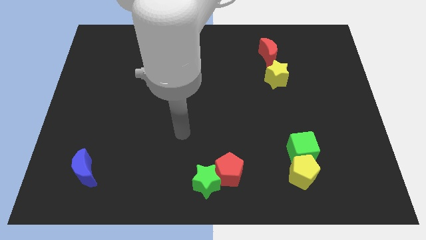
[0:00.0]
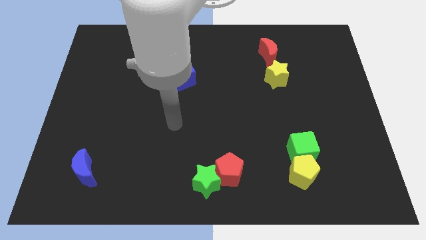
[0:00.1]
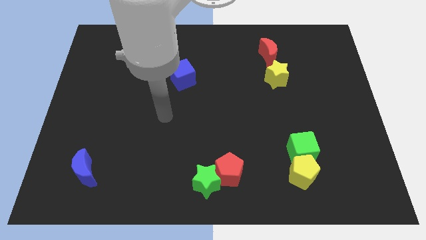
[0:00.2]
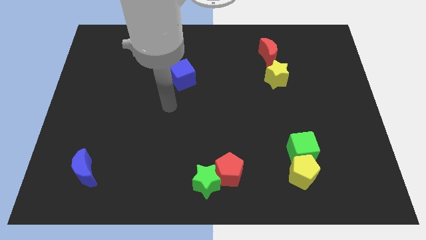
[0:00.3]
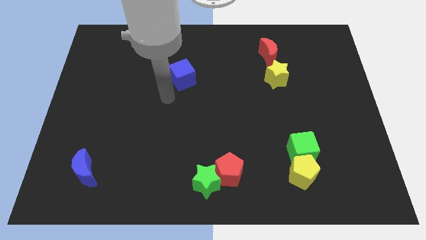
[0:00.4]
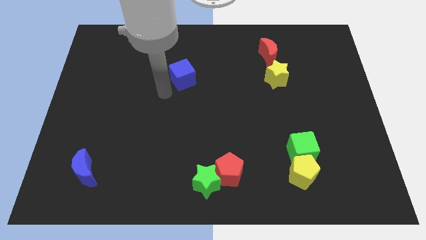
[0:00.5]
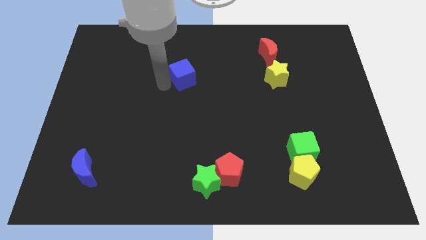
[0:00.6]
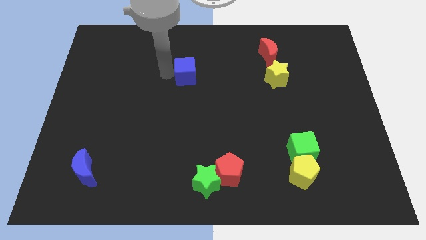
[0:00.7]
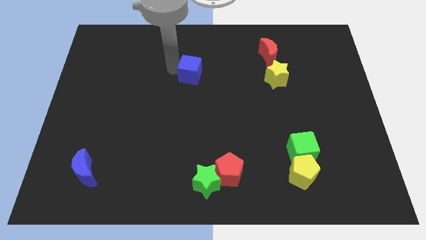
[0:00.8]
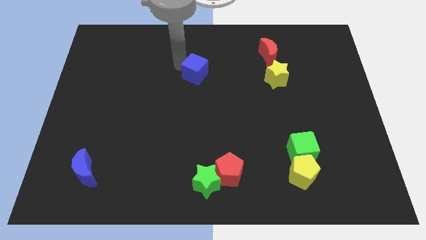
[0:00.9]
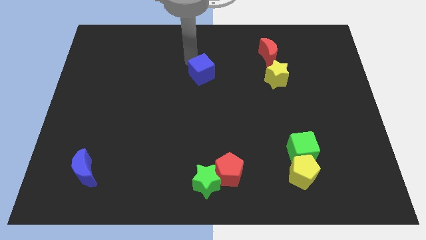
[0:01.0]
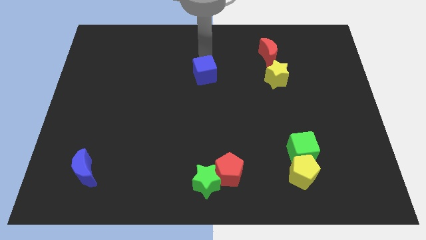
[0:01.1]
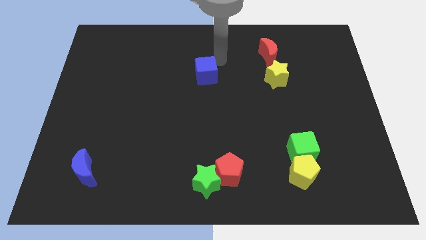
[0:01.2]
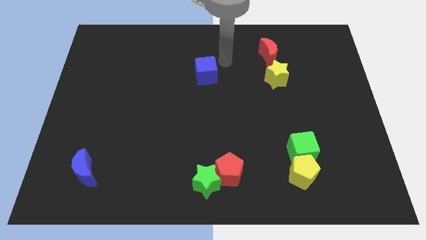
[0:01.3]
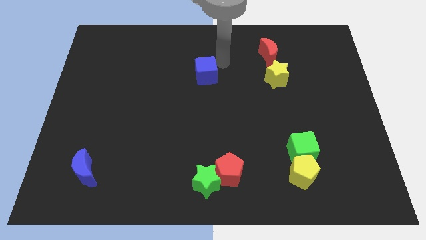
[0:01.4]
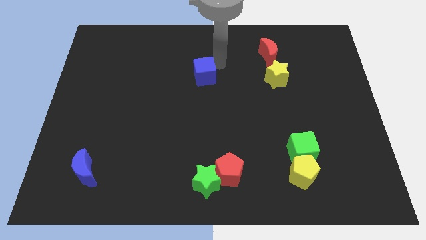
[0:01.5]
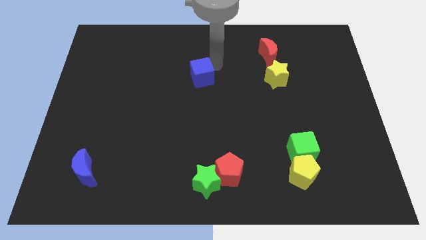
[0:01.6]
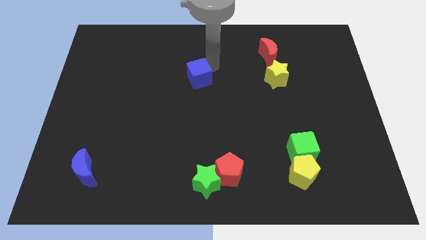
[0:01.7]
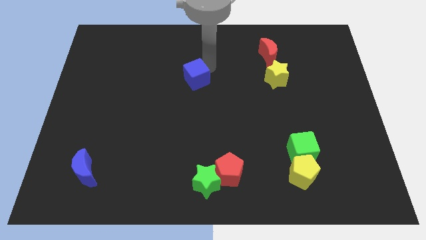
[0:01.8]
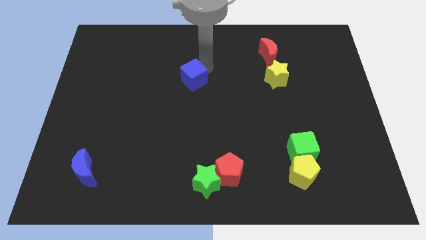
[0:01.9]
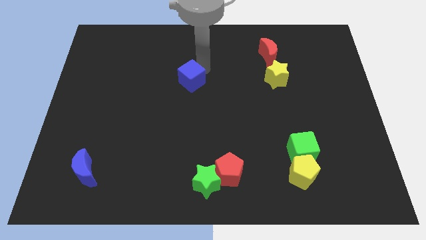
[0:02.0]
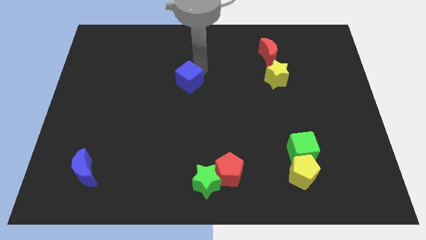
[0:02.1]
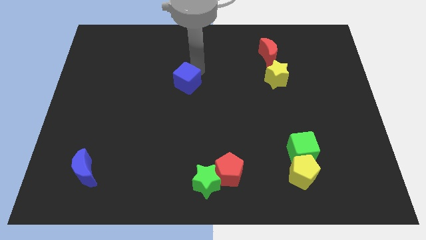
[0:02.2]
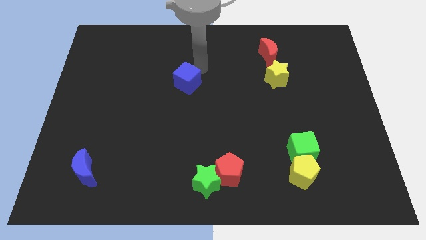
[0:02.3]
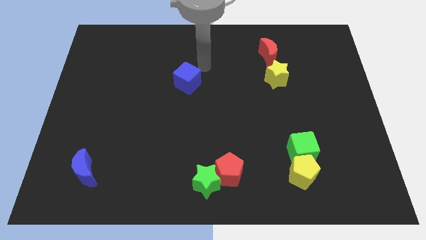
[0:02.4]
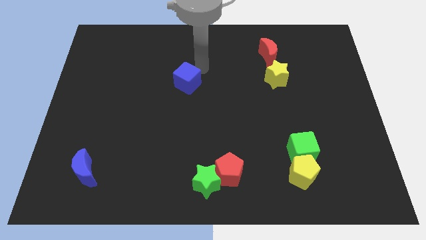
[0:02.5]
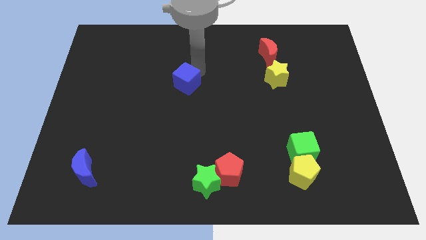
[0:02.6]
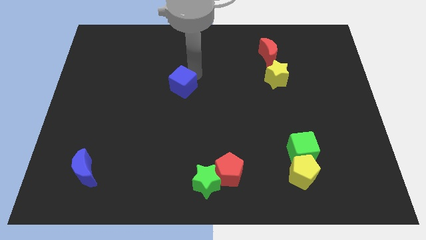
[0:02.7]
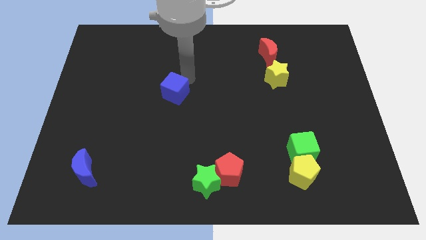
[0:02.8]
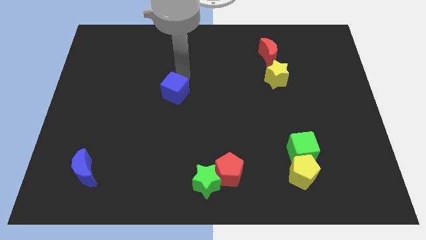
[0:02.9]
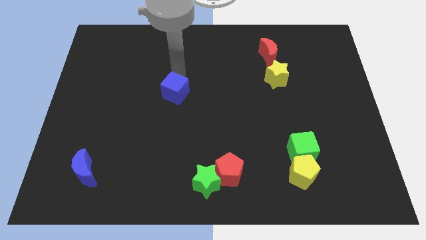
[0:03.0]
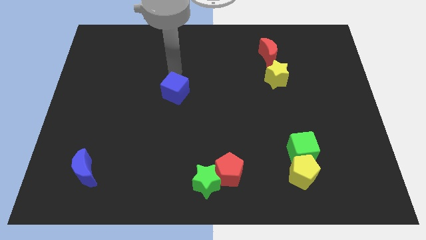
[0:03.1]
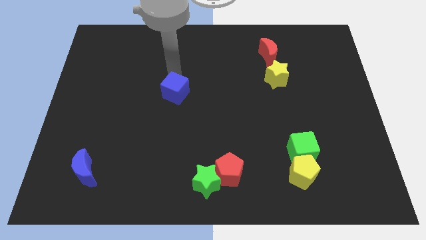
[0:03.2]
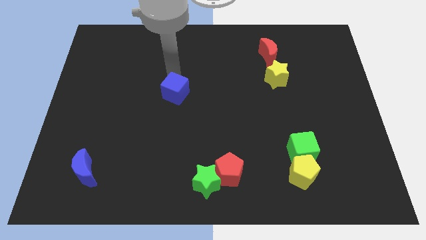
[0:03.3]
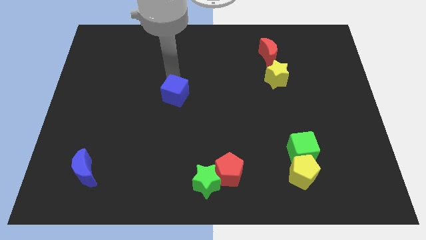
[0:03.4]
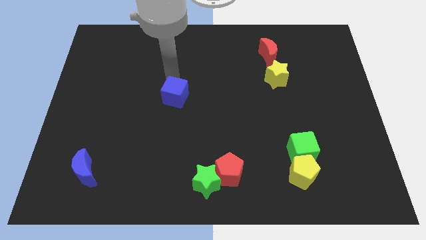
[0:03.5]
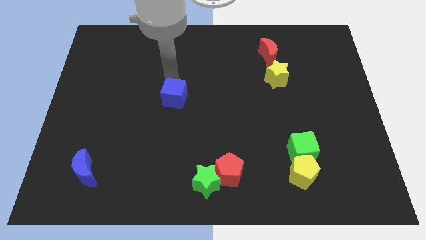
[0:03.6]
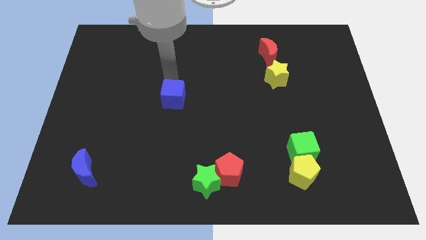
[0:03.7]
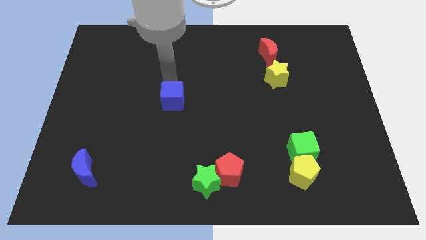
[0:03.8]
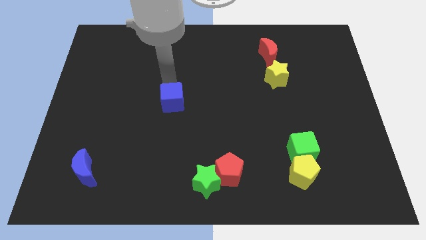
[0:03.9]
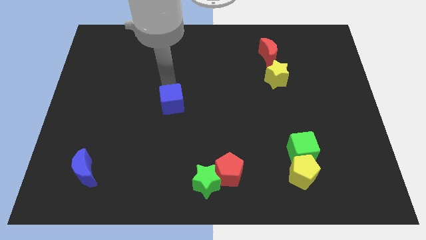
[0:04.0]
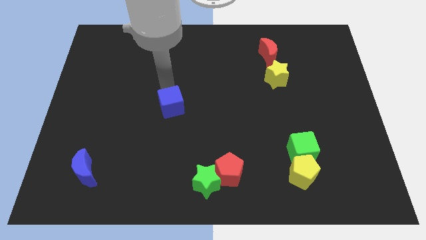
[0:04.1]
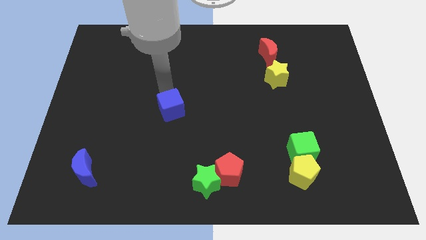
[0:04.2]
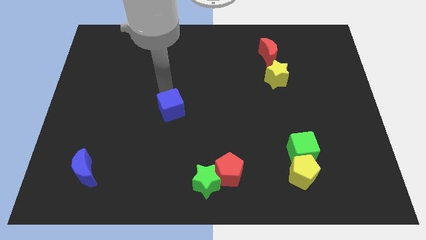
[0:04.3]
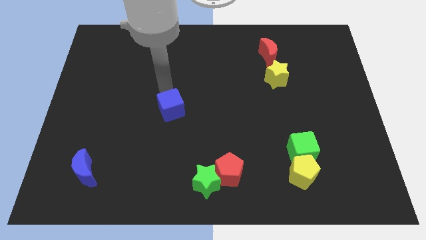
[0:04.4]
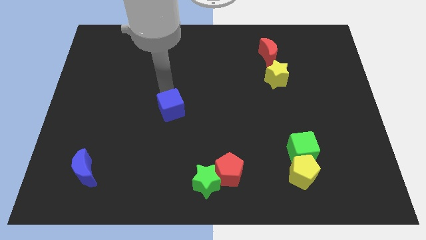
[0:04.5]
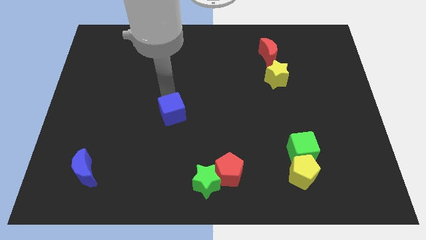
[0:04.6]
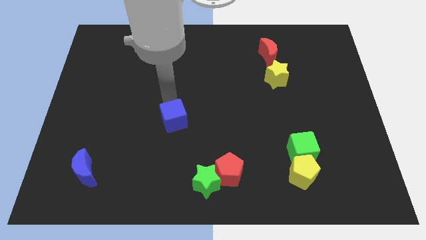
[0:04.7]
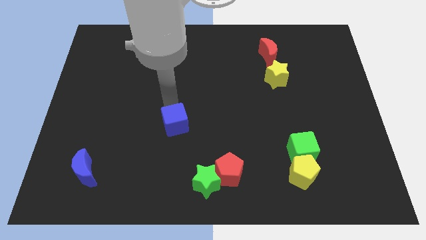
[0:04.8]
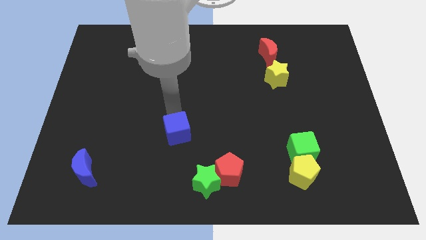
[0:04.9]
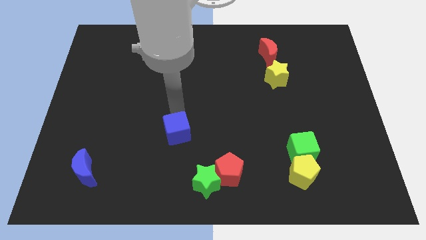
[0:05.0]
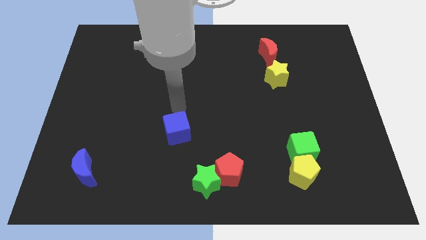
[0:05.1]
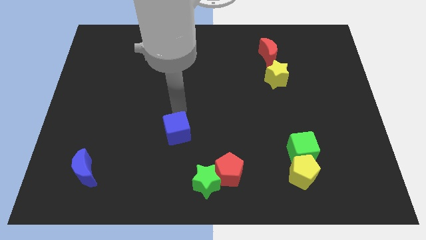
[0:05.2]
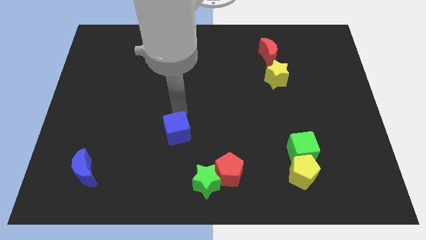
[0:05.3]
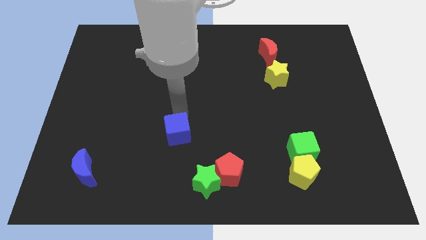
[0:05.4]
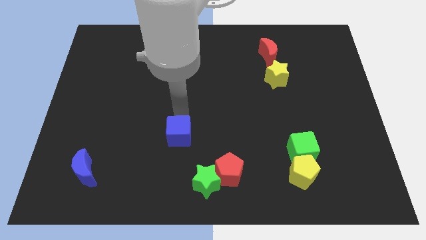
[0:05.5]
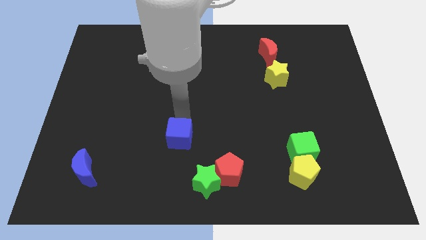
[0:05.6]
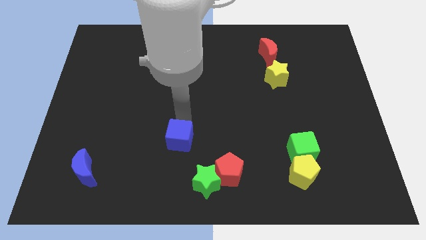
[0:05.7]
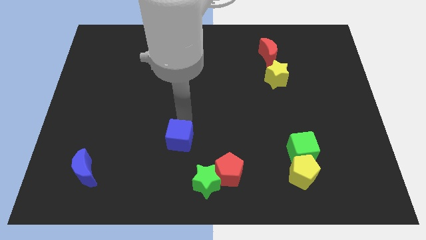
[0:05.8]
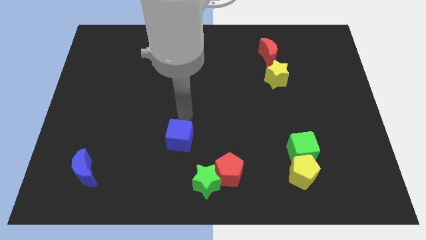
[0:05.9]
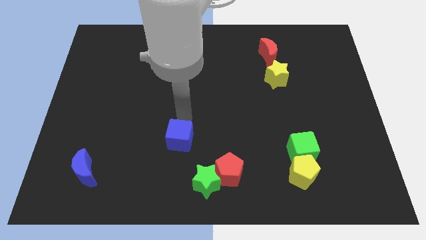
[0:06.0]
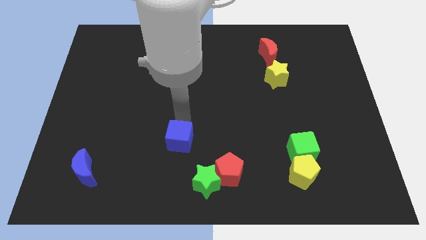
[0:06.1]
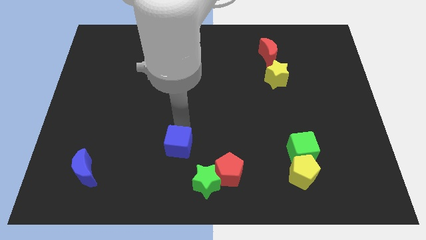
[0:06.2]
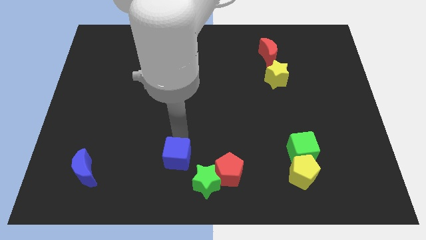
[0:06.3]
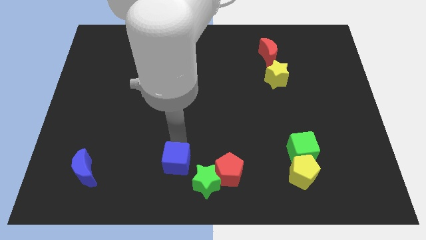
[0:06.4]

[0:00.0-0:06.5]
slide the blue cube to the bottom side
